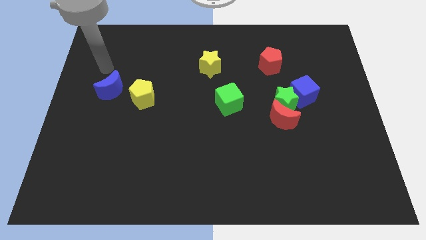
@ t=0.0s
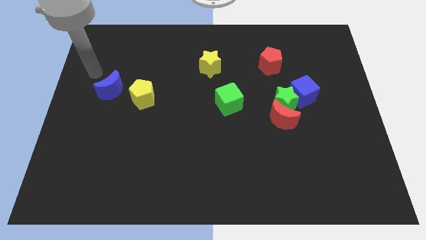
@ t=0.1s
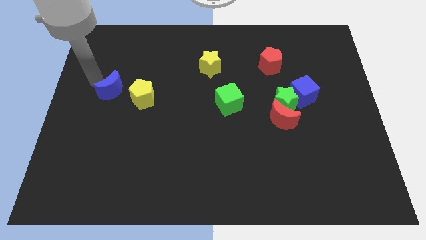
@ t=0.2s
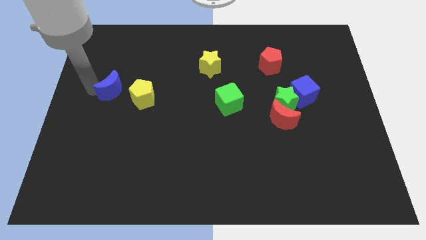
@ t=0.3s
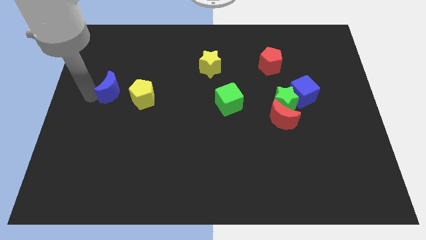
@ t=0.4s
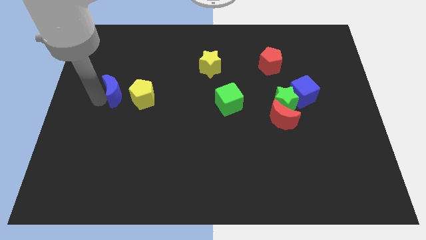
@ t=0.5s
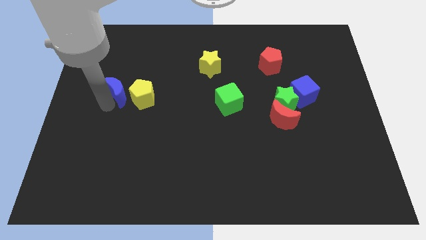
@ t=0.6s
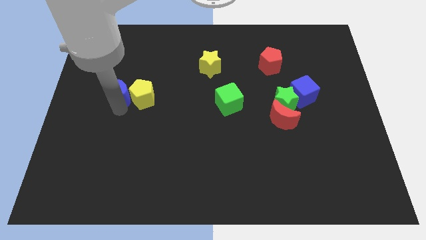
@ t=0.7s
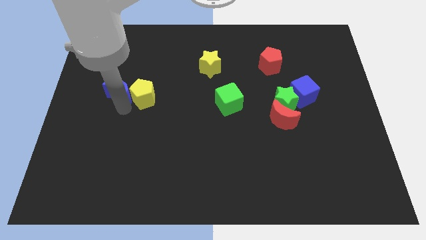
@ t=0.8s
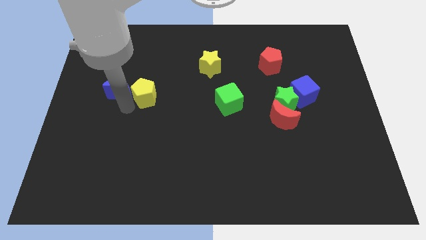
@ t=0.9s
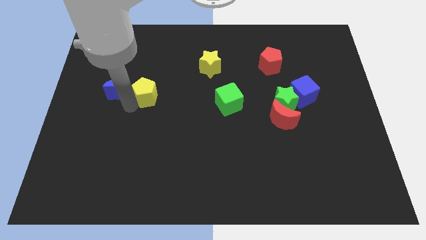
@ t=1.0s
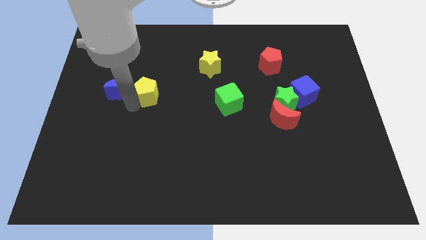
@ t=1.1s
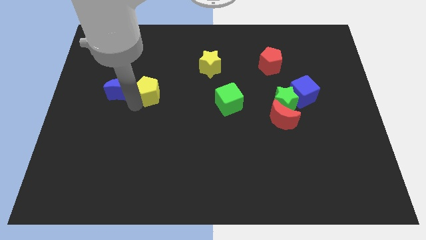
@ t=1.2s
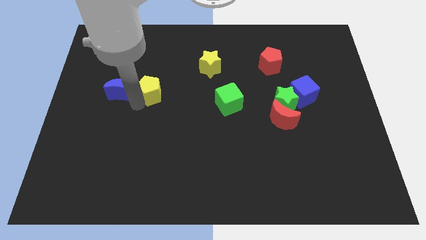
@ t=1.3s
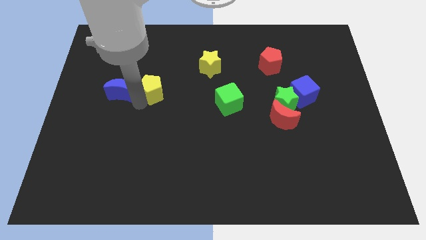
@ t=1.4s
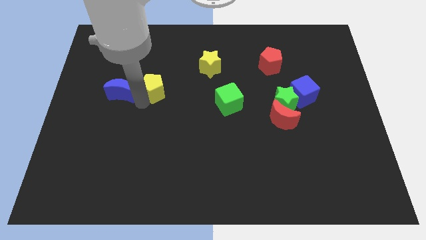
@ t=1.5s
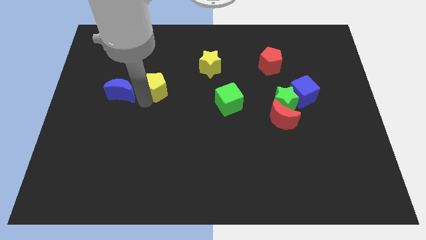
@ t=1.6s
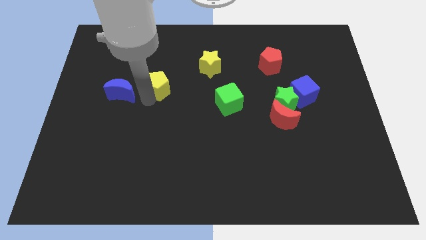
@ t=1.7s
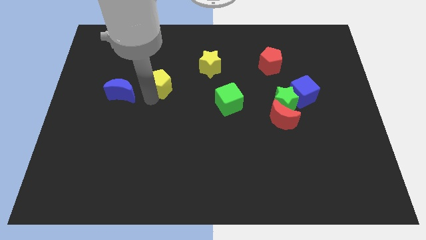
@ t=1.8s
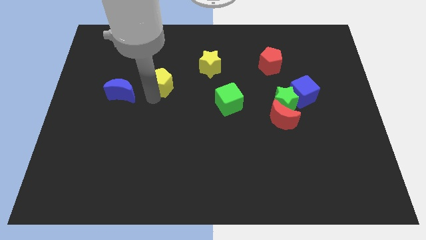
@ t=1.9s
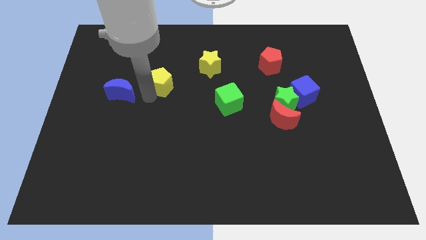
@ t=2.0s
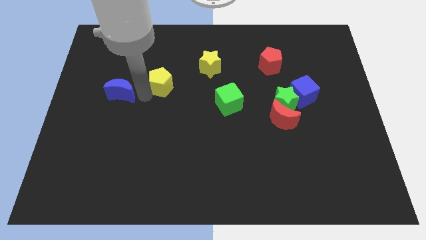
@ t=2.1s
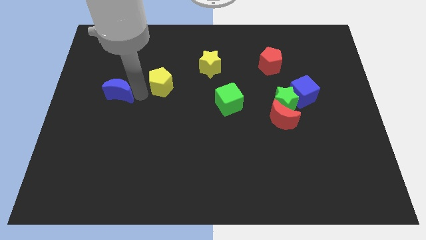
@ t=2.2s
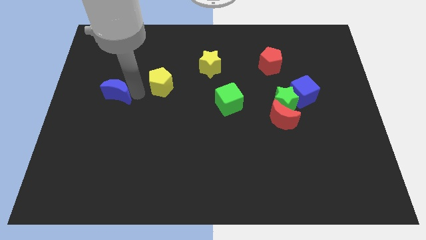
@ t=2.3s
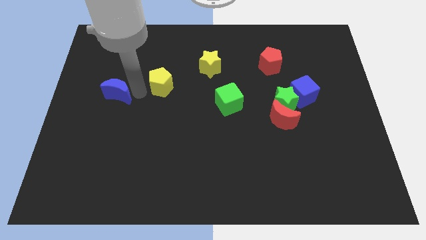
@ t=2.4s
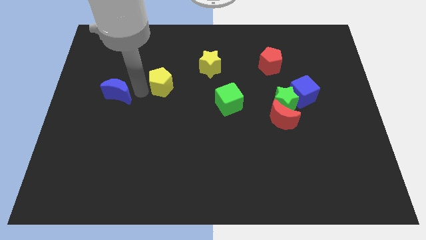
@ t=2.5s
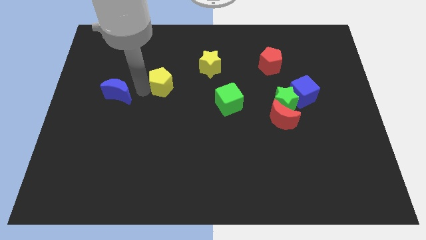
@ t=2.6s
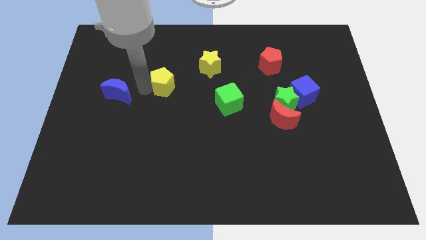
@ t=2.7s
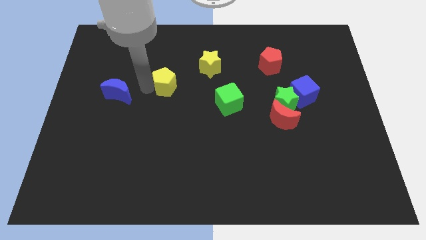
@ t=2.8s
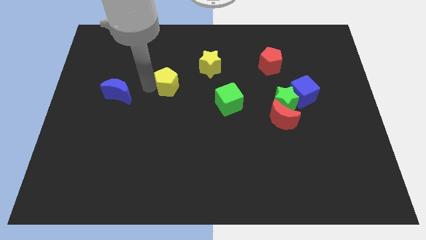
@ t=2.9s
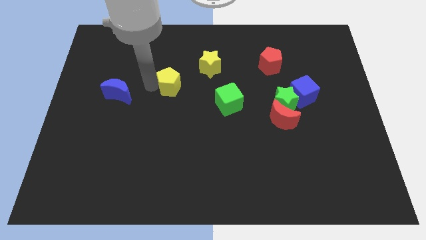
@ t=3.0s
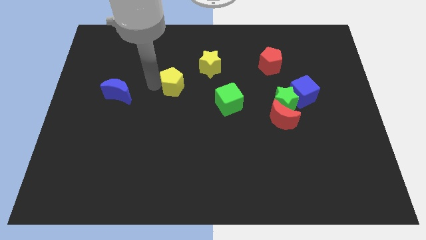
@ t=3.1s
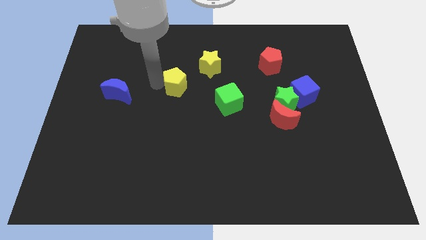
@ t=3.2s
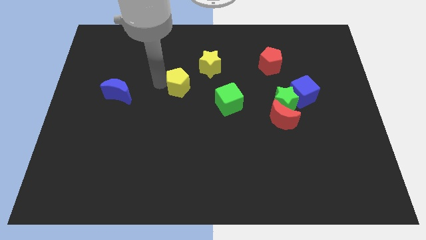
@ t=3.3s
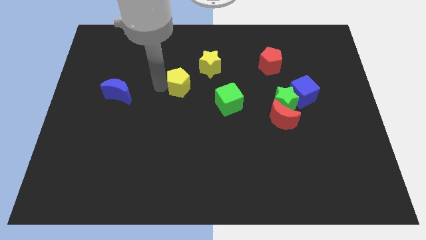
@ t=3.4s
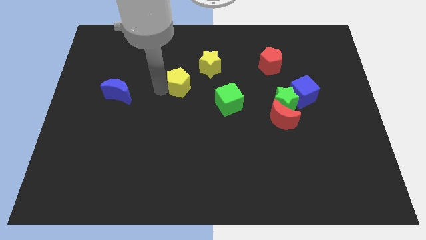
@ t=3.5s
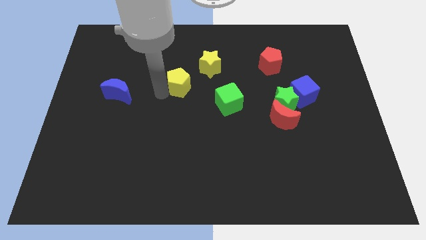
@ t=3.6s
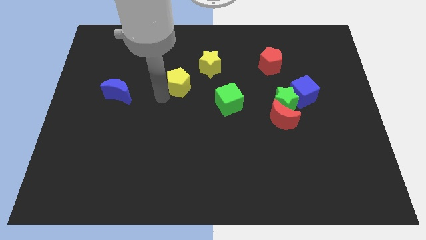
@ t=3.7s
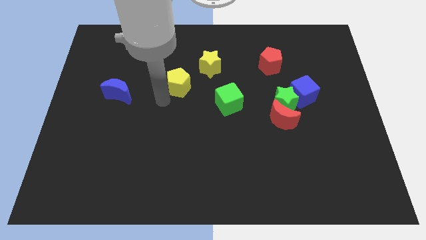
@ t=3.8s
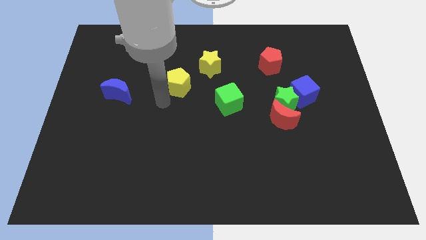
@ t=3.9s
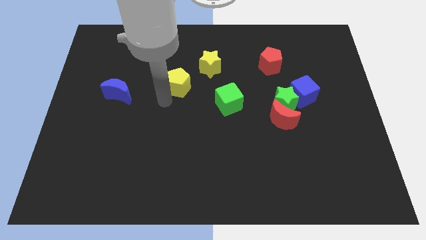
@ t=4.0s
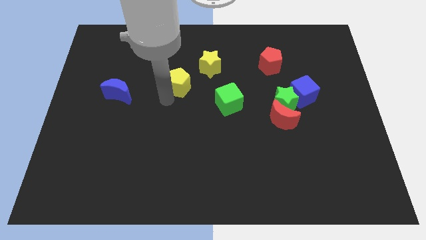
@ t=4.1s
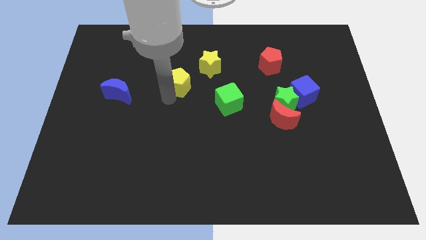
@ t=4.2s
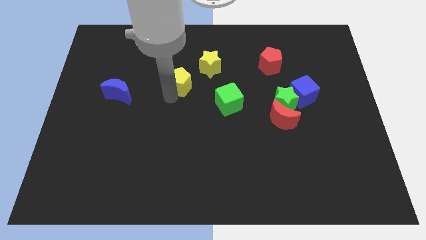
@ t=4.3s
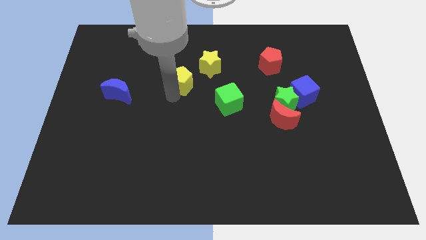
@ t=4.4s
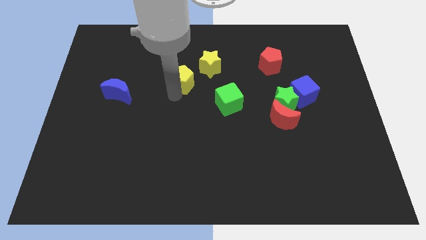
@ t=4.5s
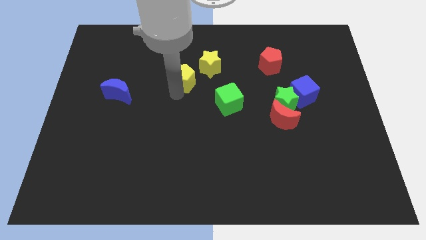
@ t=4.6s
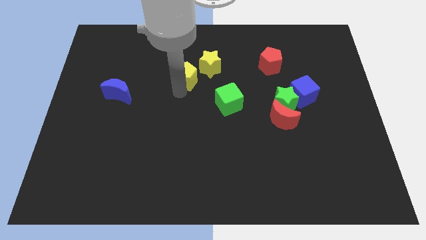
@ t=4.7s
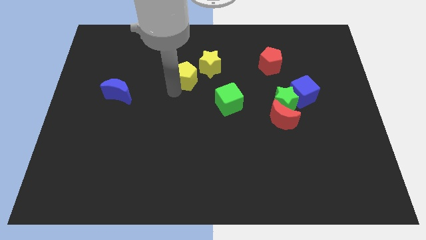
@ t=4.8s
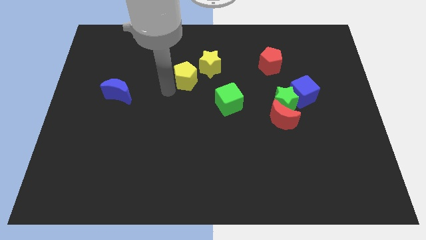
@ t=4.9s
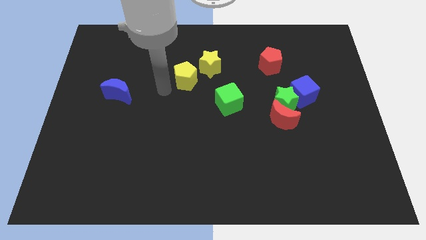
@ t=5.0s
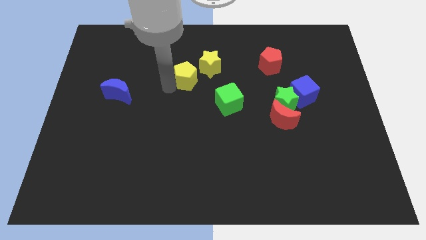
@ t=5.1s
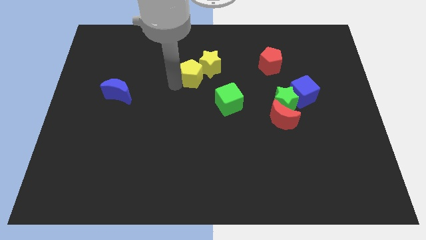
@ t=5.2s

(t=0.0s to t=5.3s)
move the yellow pentagon to the yellow star

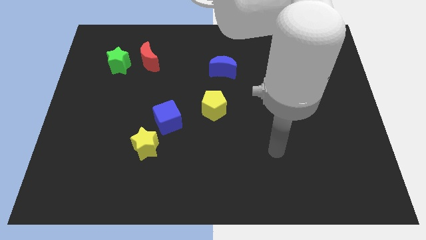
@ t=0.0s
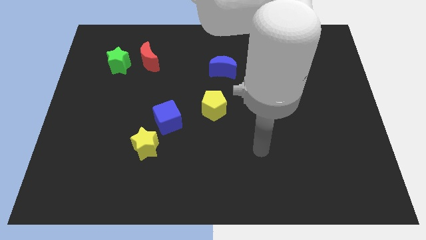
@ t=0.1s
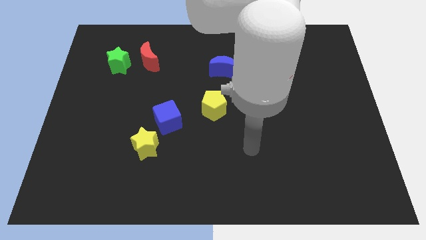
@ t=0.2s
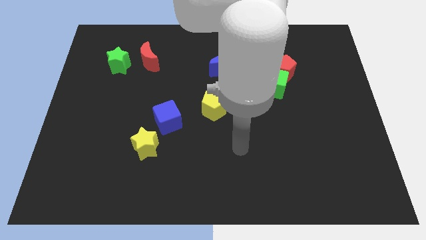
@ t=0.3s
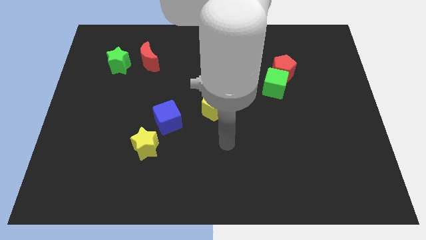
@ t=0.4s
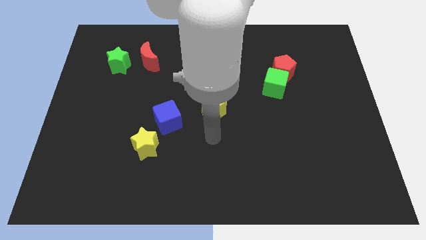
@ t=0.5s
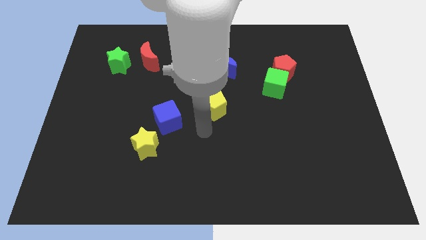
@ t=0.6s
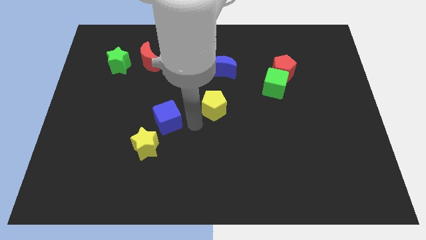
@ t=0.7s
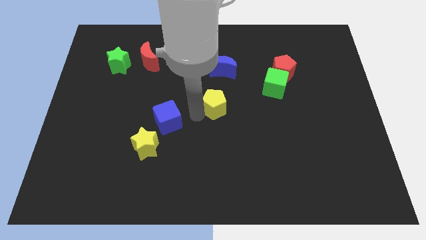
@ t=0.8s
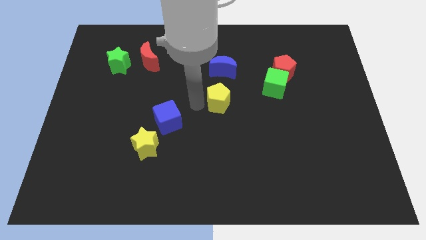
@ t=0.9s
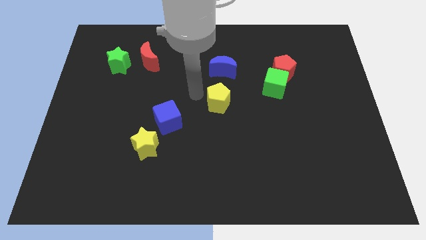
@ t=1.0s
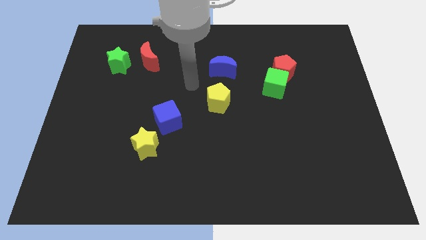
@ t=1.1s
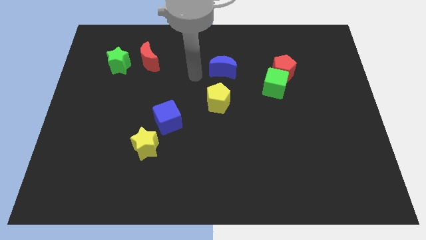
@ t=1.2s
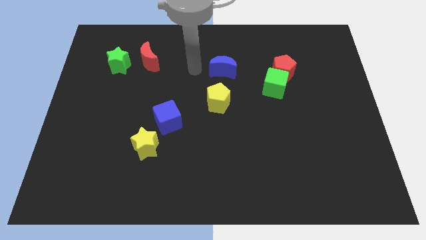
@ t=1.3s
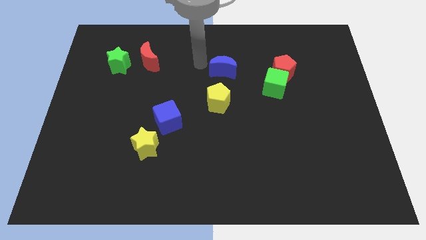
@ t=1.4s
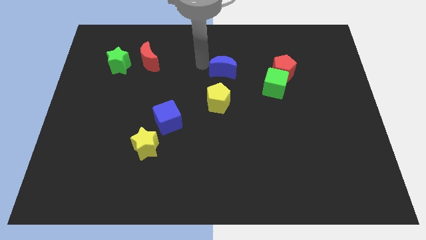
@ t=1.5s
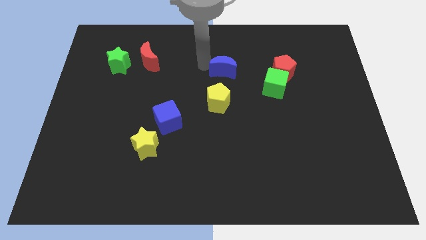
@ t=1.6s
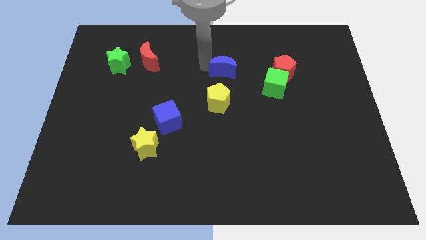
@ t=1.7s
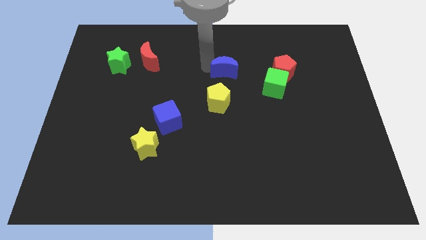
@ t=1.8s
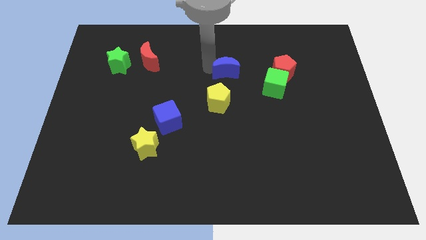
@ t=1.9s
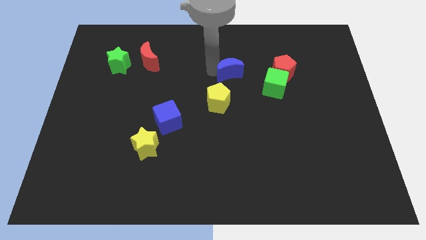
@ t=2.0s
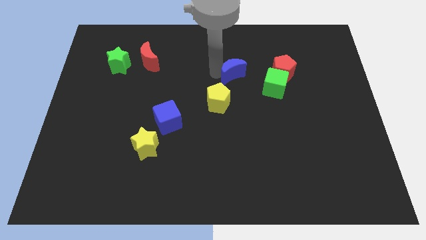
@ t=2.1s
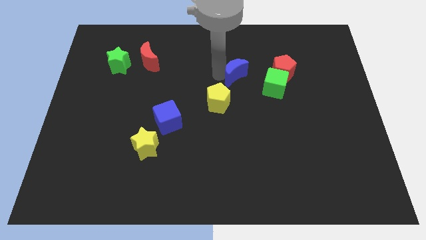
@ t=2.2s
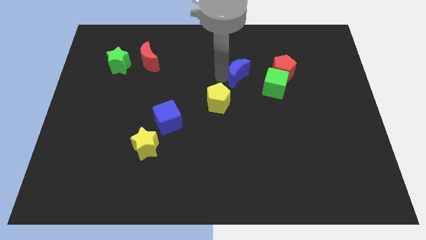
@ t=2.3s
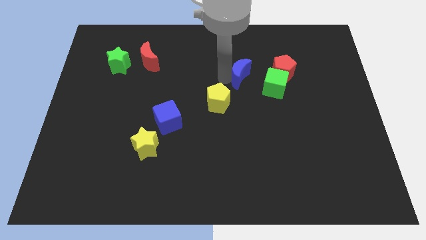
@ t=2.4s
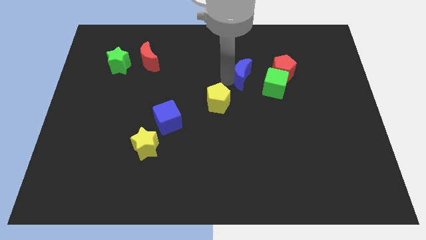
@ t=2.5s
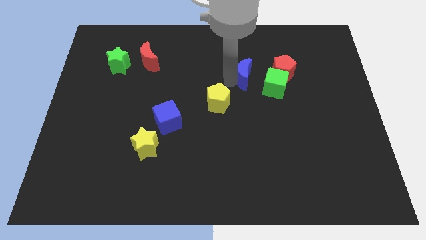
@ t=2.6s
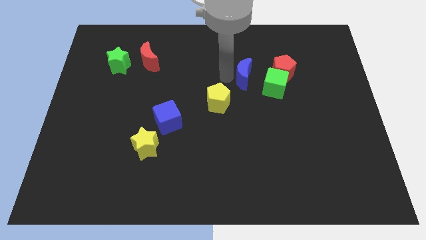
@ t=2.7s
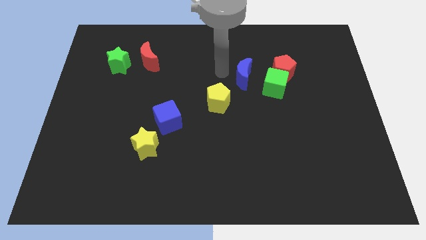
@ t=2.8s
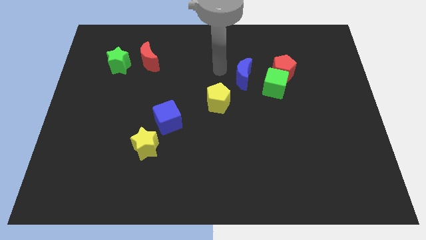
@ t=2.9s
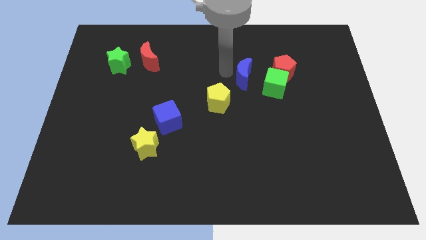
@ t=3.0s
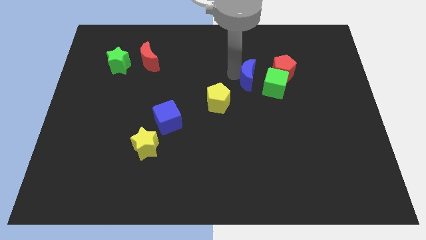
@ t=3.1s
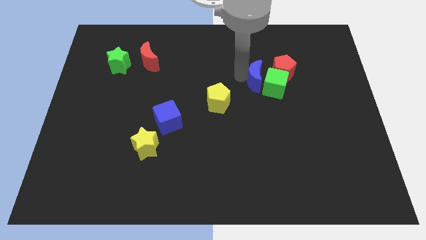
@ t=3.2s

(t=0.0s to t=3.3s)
put the blue moon next to the green cube
